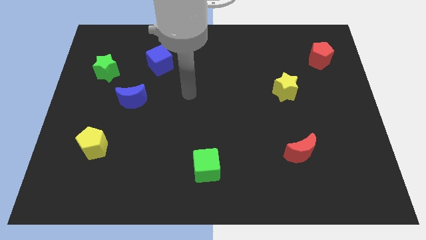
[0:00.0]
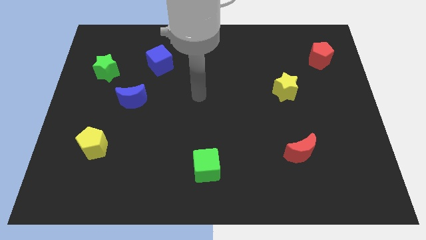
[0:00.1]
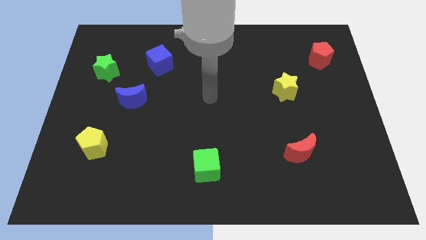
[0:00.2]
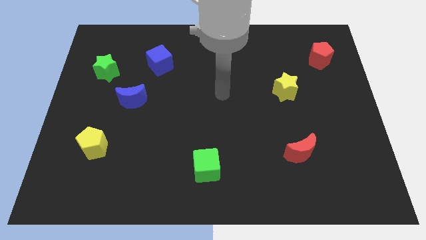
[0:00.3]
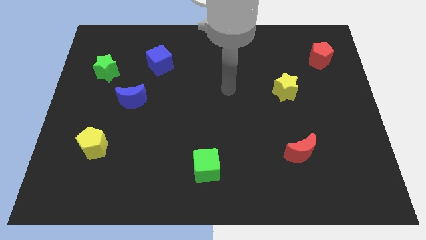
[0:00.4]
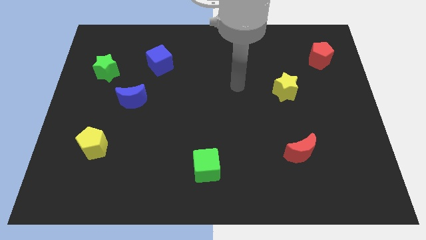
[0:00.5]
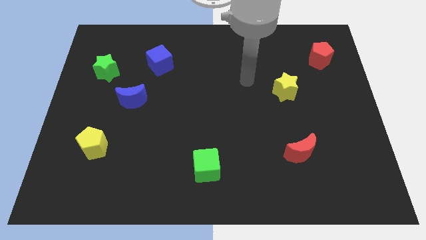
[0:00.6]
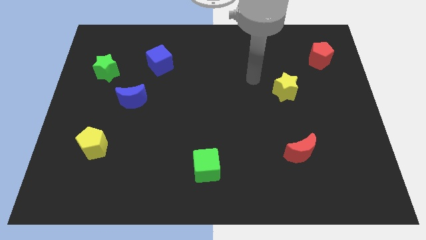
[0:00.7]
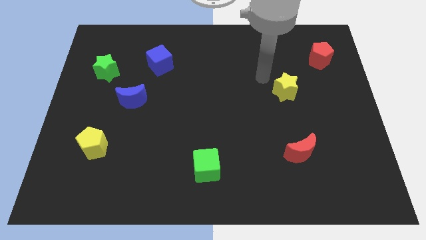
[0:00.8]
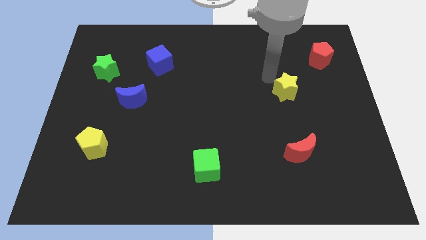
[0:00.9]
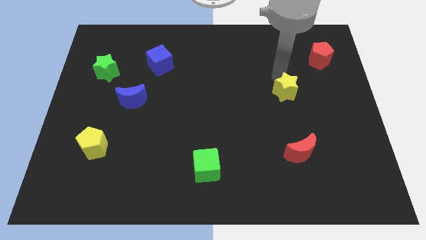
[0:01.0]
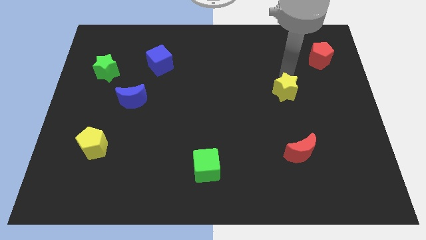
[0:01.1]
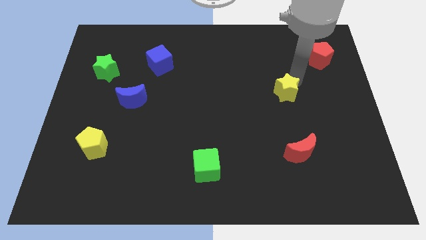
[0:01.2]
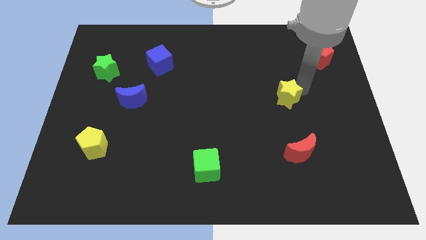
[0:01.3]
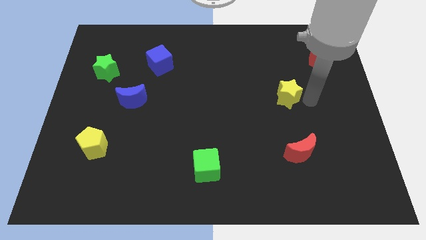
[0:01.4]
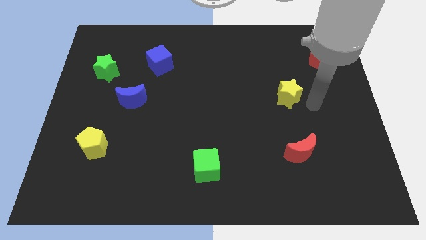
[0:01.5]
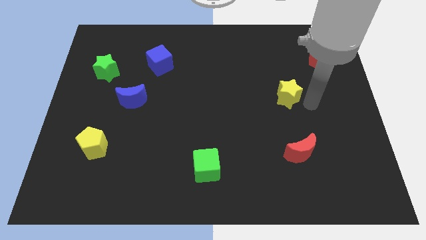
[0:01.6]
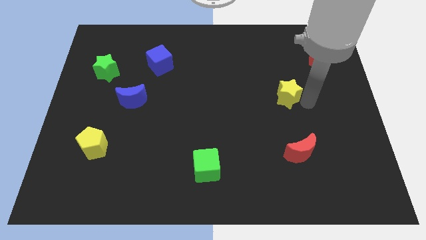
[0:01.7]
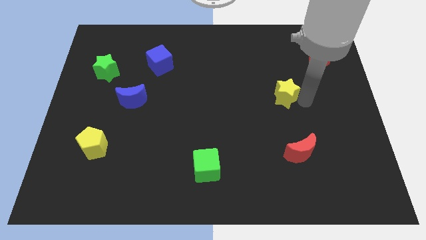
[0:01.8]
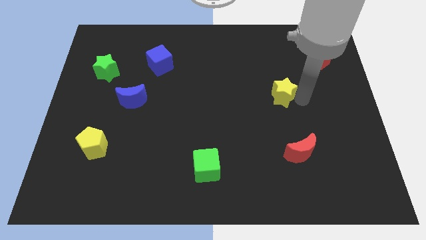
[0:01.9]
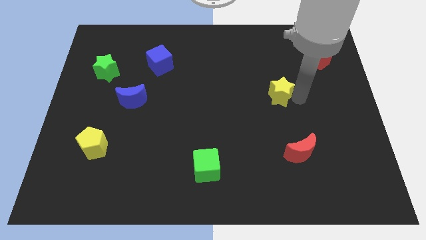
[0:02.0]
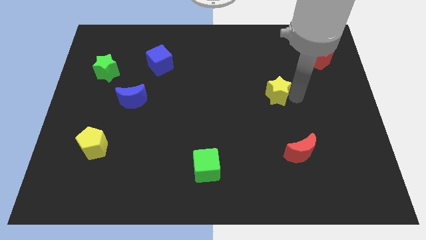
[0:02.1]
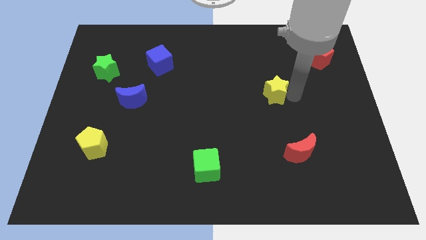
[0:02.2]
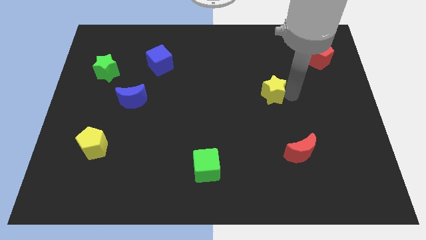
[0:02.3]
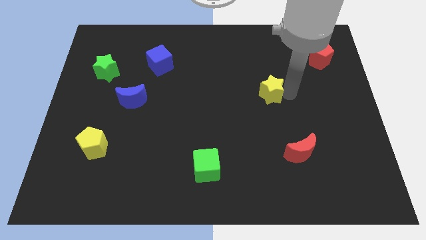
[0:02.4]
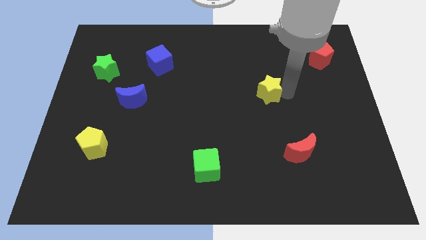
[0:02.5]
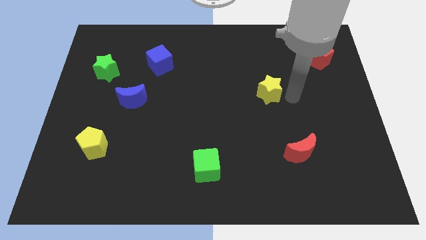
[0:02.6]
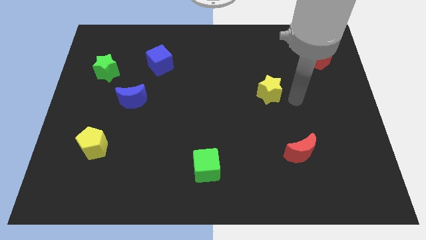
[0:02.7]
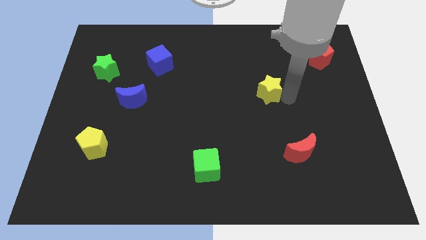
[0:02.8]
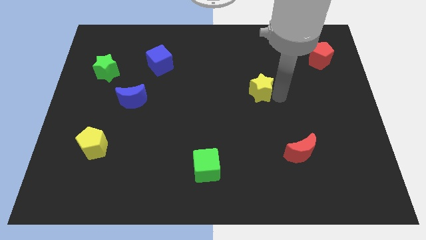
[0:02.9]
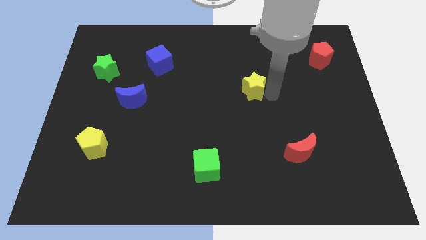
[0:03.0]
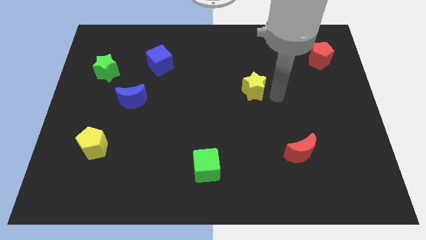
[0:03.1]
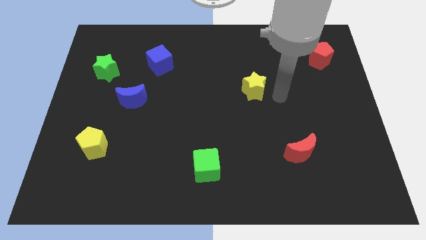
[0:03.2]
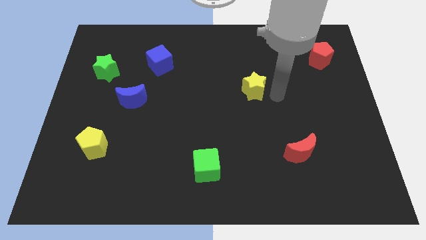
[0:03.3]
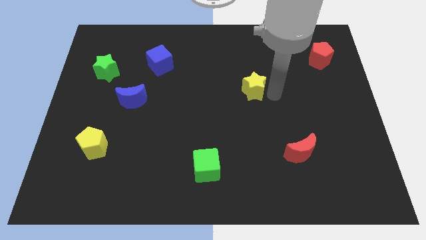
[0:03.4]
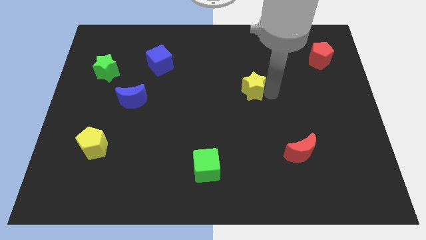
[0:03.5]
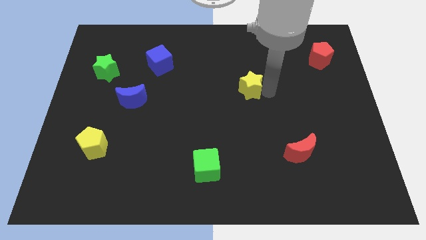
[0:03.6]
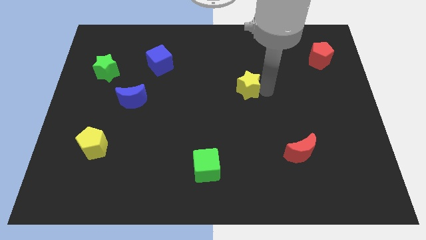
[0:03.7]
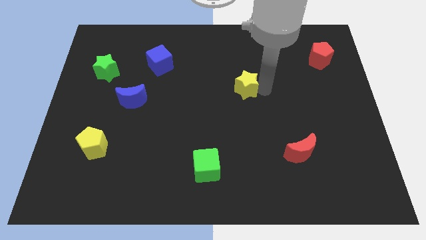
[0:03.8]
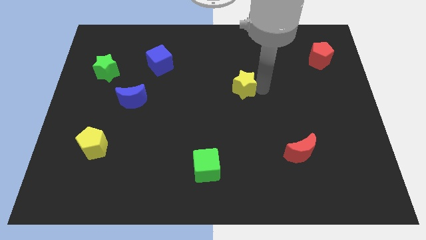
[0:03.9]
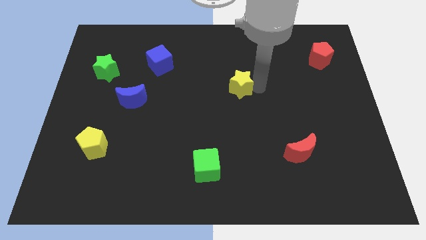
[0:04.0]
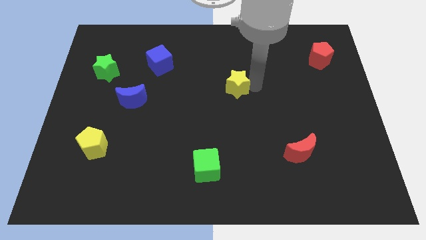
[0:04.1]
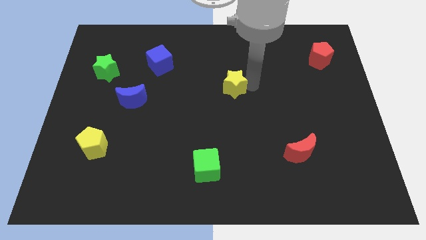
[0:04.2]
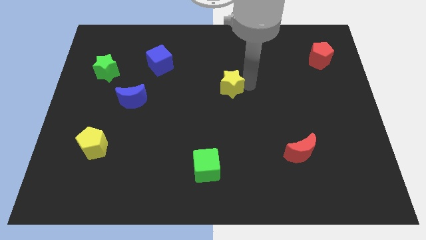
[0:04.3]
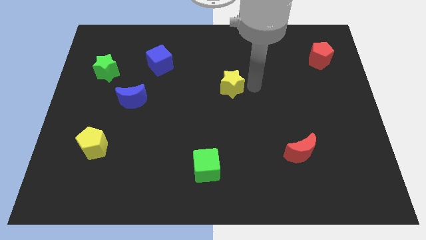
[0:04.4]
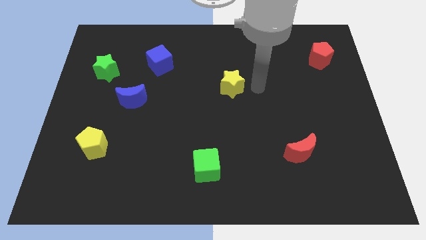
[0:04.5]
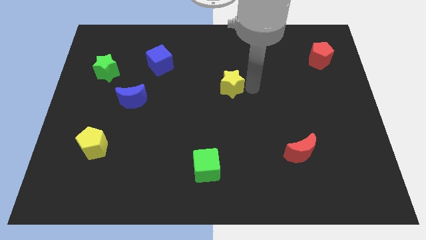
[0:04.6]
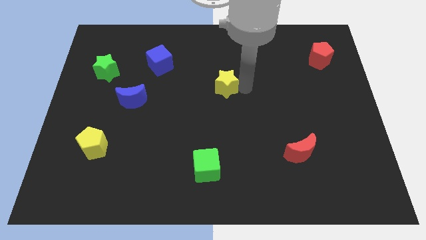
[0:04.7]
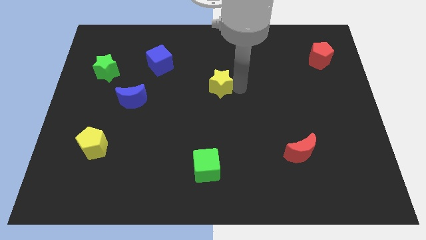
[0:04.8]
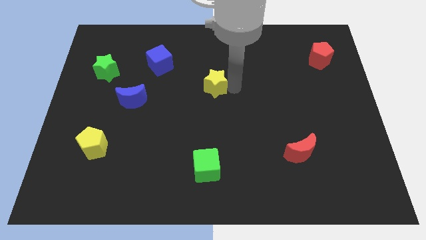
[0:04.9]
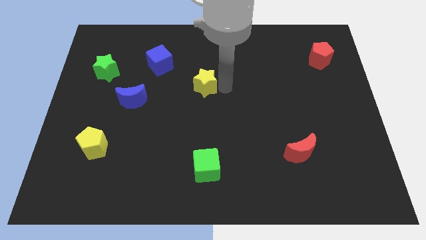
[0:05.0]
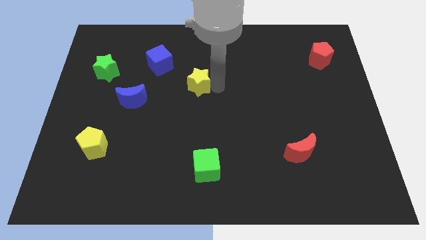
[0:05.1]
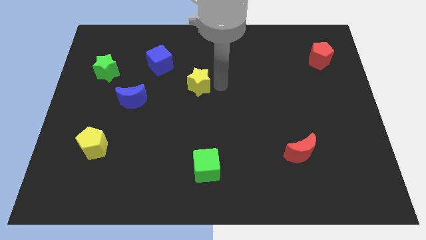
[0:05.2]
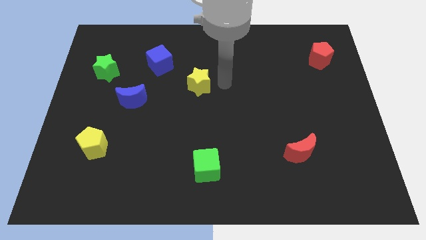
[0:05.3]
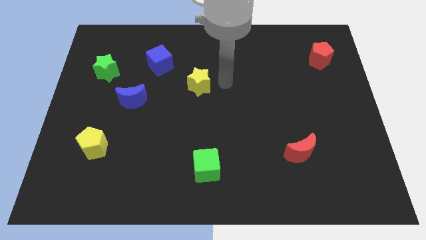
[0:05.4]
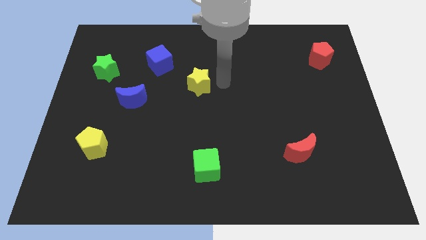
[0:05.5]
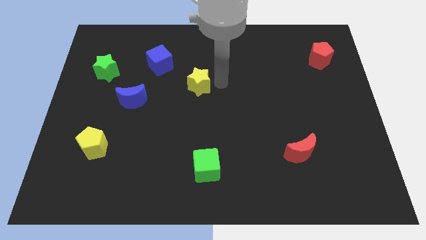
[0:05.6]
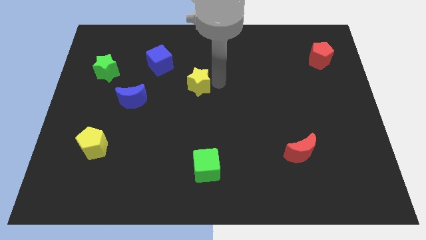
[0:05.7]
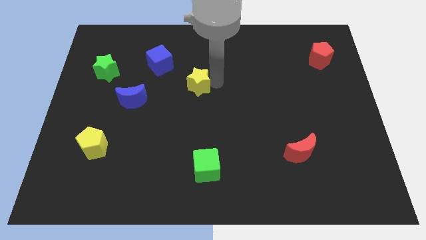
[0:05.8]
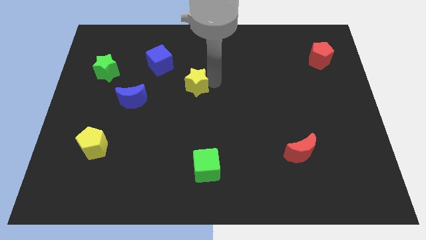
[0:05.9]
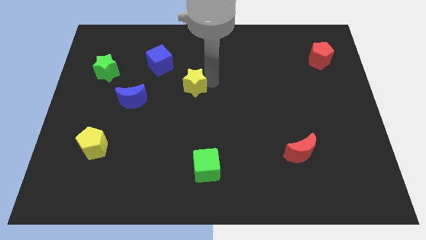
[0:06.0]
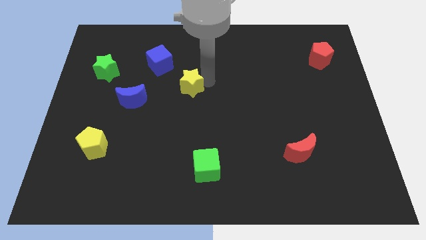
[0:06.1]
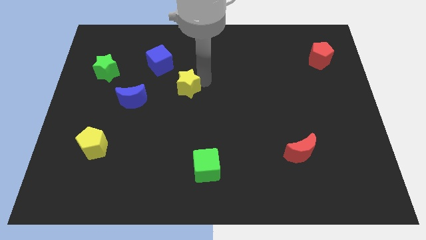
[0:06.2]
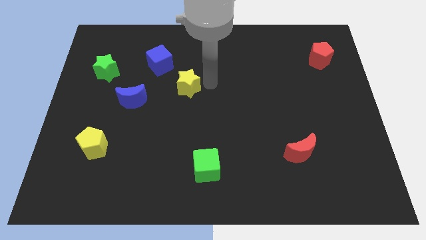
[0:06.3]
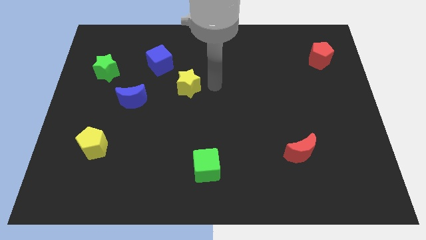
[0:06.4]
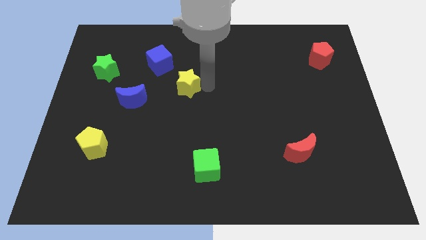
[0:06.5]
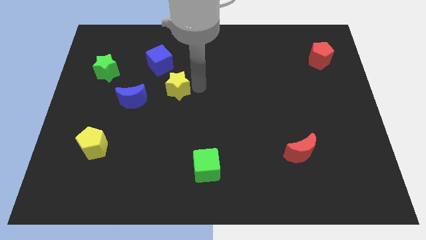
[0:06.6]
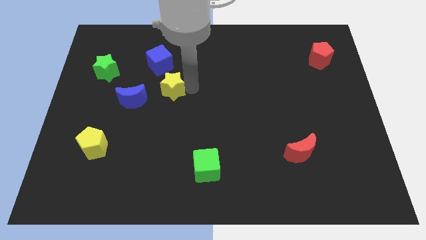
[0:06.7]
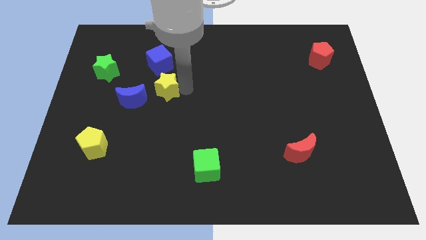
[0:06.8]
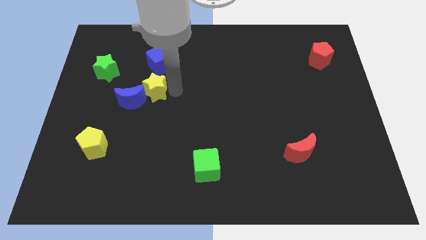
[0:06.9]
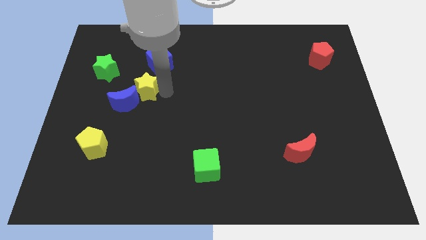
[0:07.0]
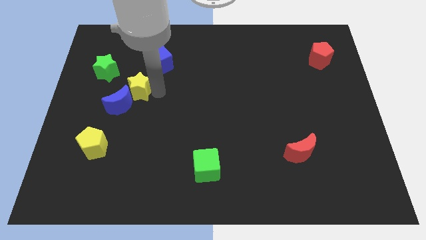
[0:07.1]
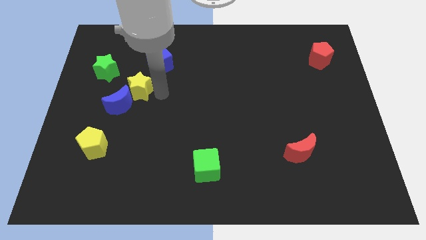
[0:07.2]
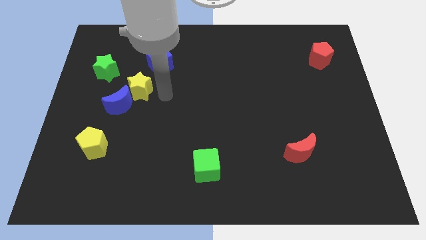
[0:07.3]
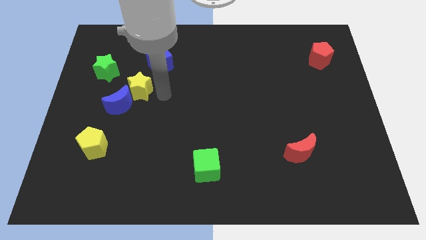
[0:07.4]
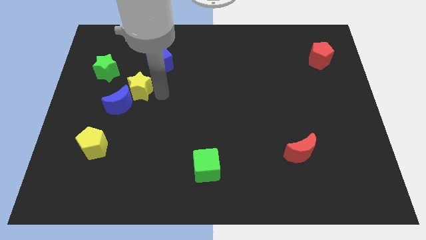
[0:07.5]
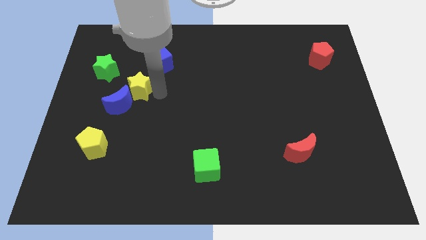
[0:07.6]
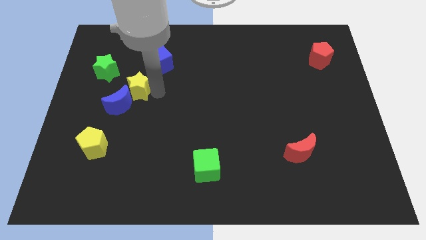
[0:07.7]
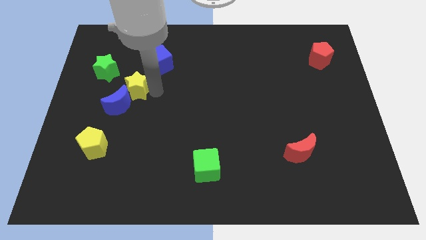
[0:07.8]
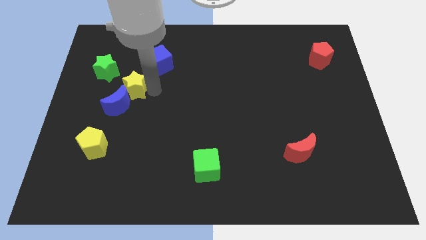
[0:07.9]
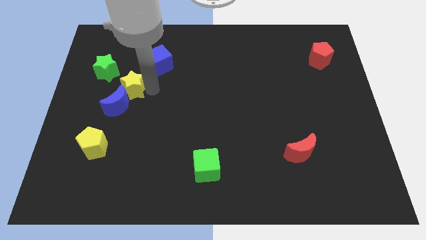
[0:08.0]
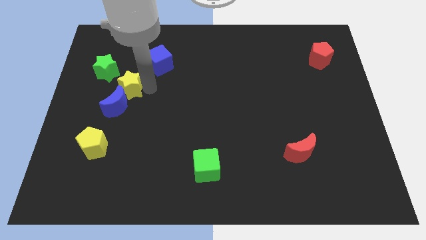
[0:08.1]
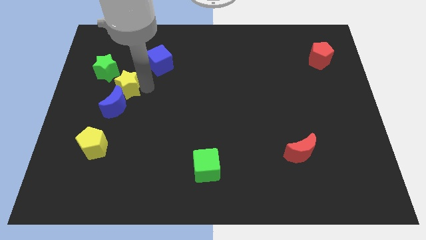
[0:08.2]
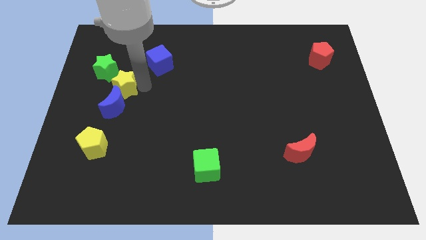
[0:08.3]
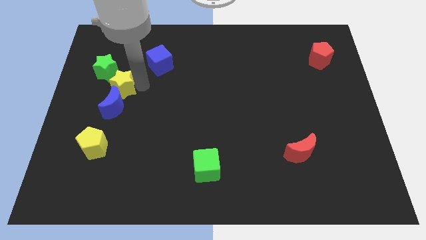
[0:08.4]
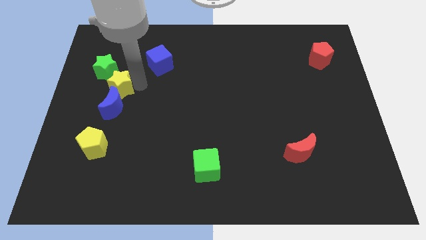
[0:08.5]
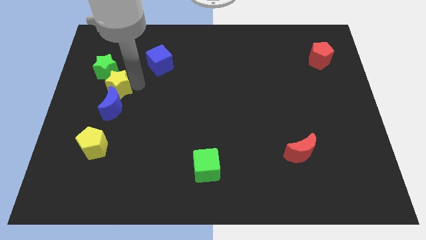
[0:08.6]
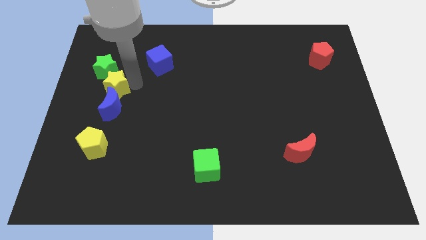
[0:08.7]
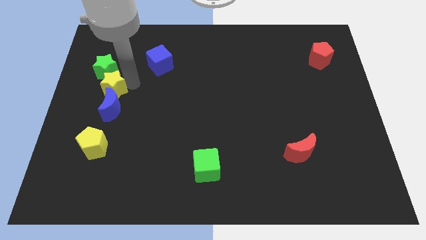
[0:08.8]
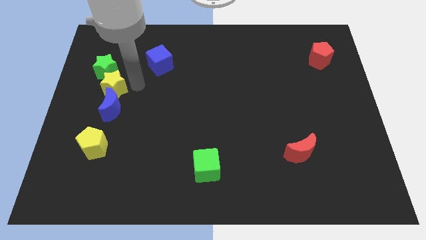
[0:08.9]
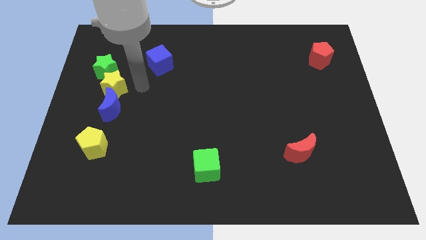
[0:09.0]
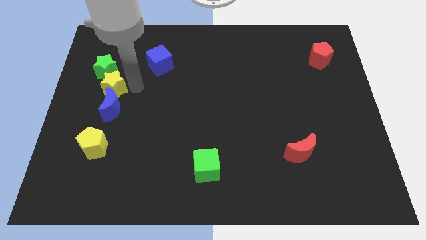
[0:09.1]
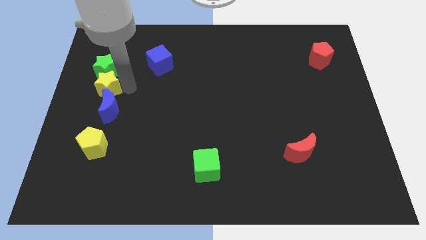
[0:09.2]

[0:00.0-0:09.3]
put the yellow star to the left side
